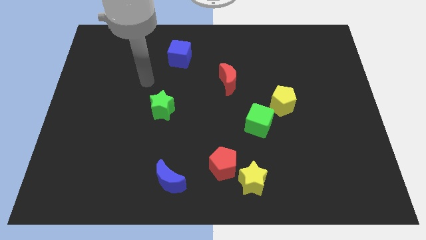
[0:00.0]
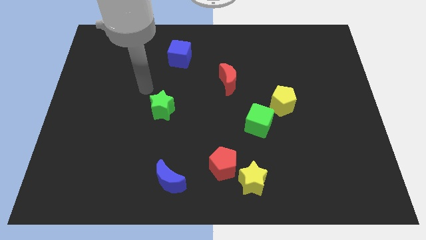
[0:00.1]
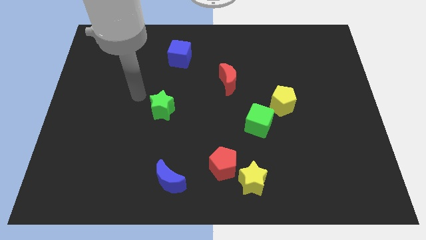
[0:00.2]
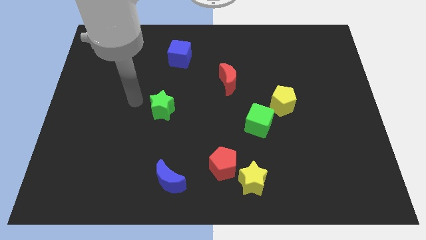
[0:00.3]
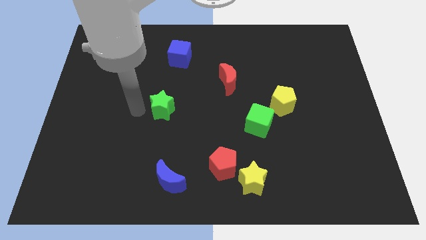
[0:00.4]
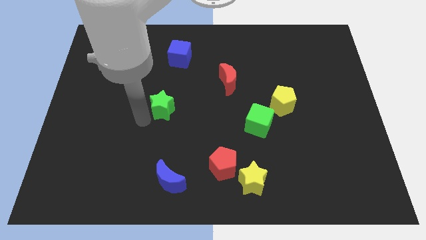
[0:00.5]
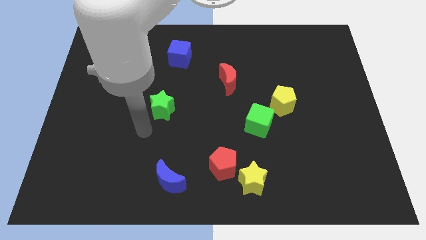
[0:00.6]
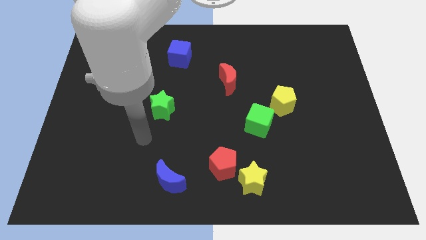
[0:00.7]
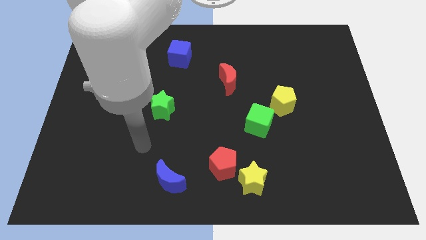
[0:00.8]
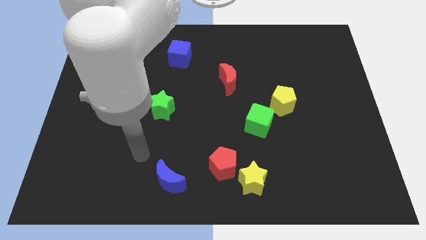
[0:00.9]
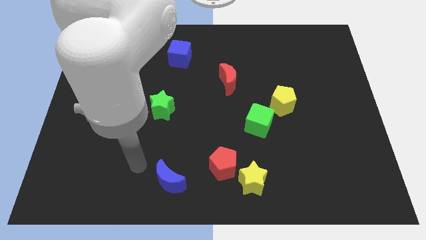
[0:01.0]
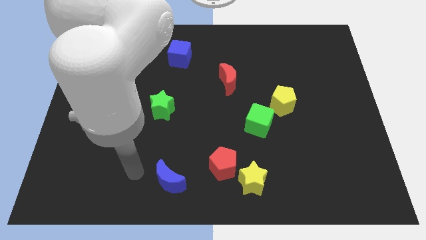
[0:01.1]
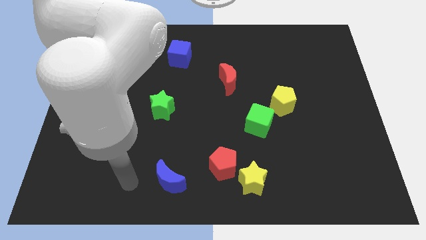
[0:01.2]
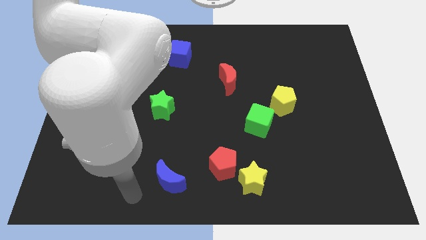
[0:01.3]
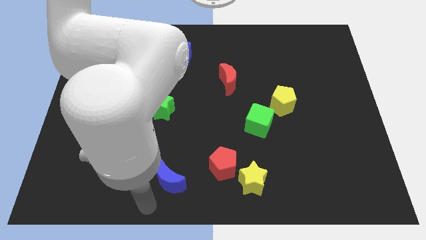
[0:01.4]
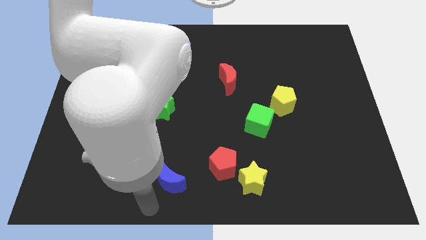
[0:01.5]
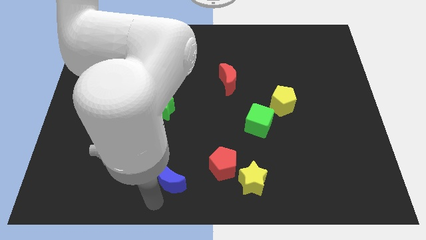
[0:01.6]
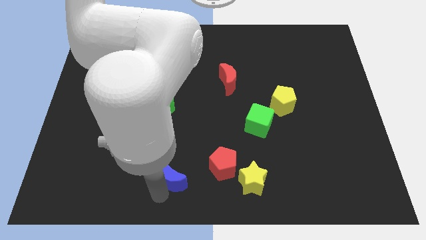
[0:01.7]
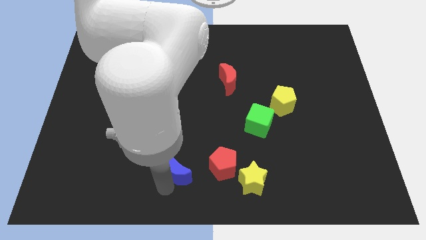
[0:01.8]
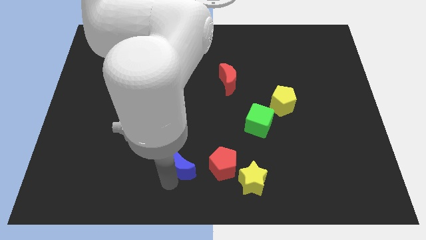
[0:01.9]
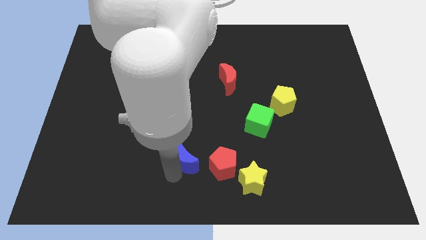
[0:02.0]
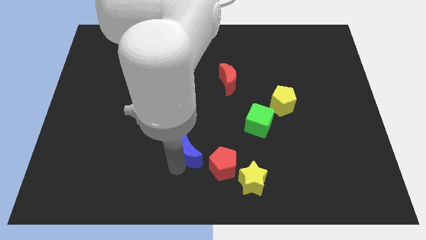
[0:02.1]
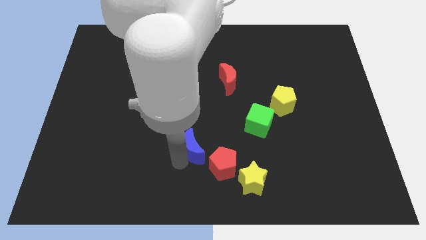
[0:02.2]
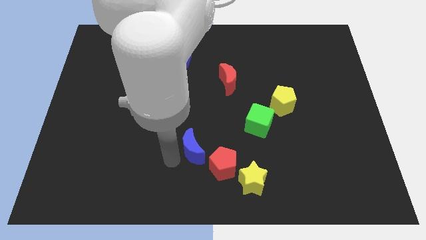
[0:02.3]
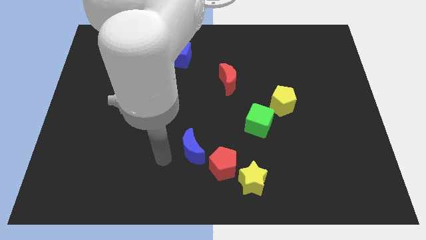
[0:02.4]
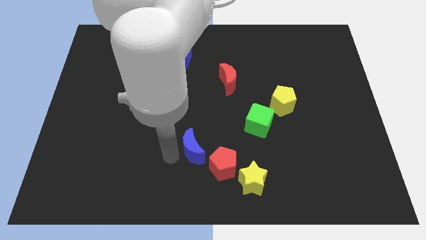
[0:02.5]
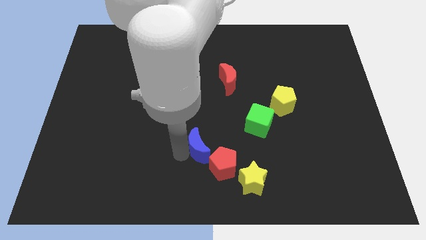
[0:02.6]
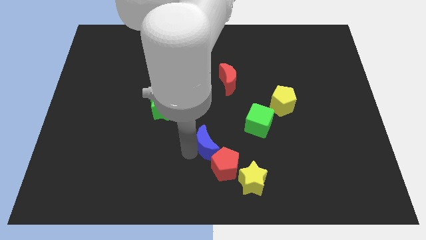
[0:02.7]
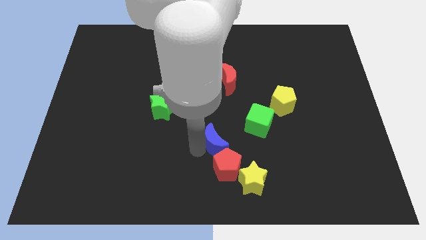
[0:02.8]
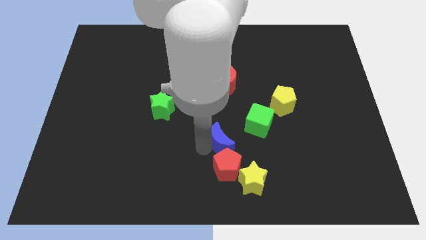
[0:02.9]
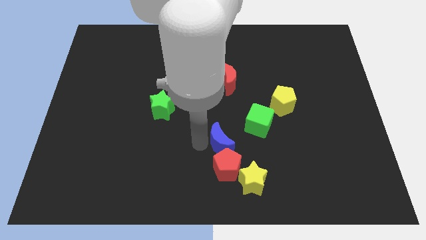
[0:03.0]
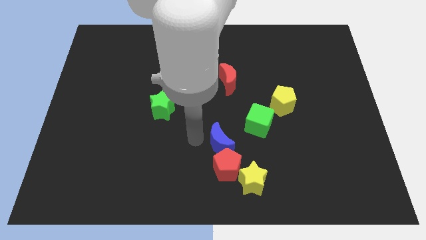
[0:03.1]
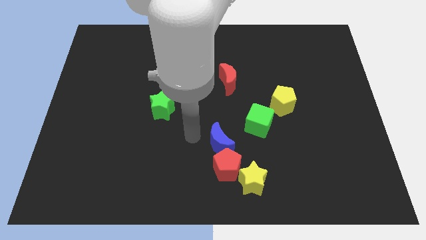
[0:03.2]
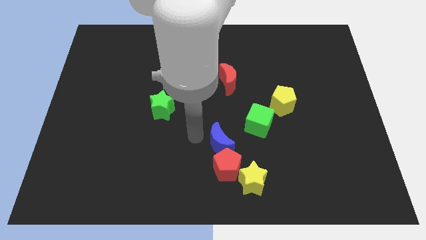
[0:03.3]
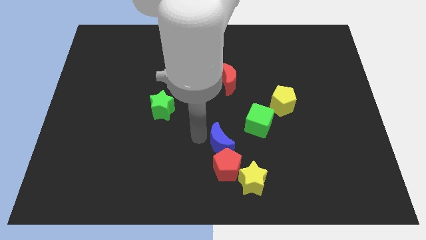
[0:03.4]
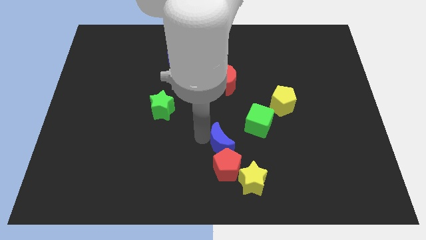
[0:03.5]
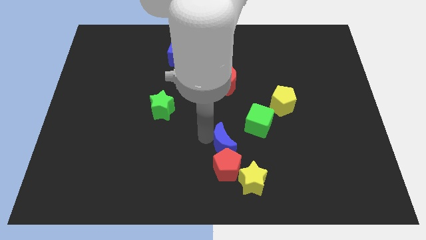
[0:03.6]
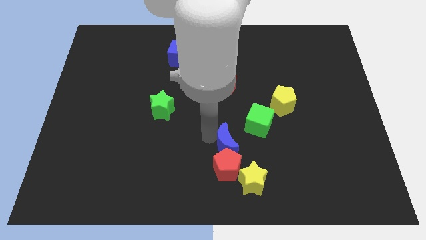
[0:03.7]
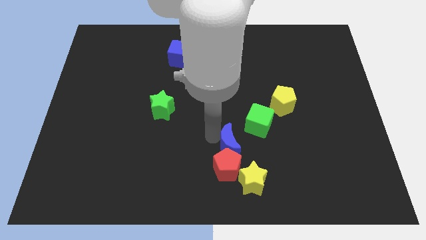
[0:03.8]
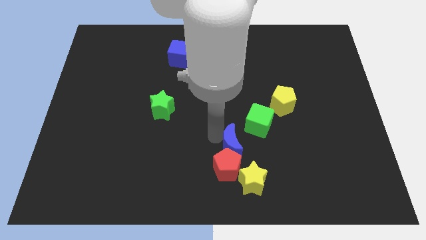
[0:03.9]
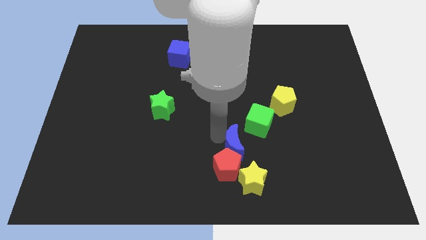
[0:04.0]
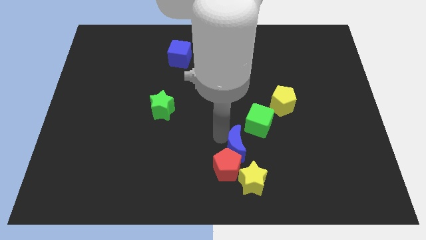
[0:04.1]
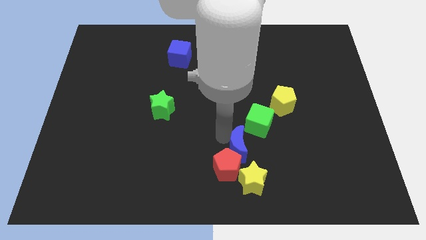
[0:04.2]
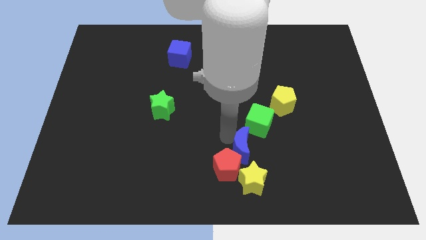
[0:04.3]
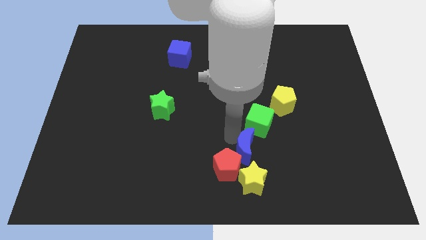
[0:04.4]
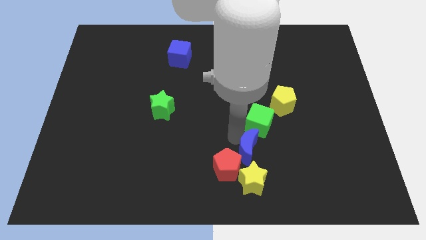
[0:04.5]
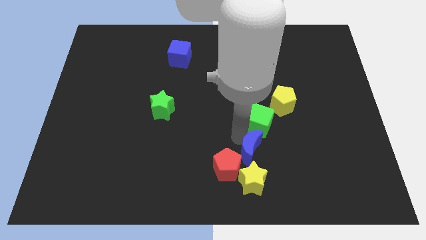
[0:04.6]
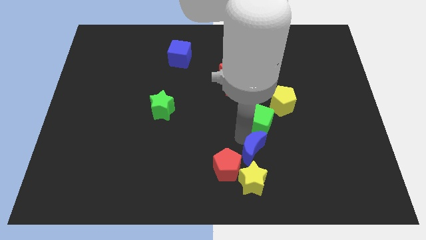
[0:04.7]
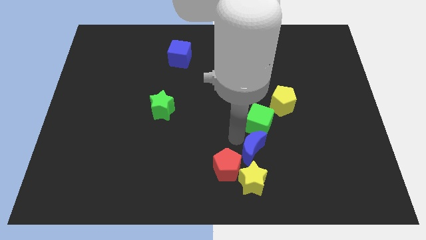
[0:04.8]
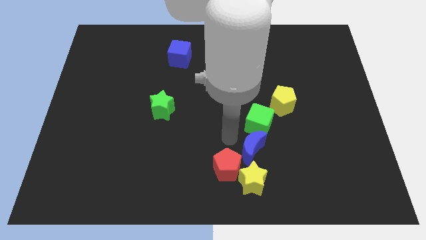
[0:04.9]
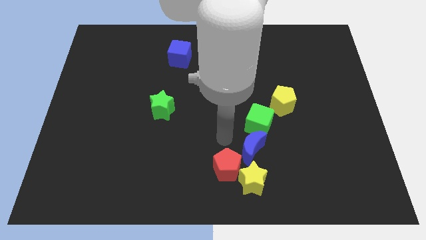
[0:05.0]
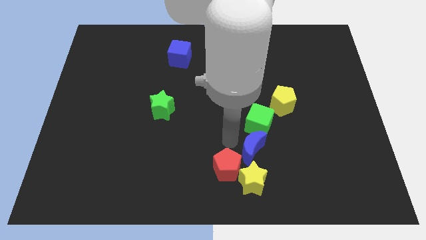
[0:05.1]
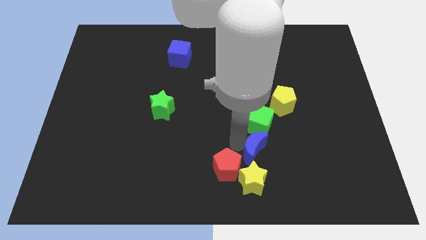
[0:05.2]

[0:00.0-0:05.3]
push the blue moon to the top right of the yellow star

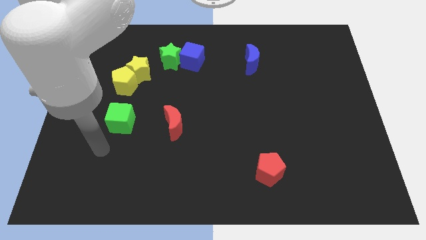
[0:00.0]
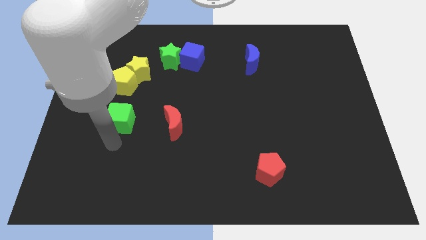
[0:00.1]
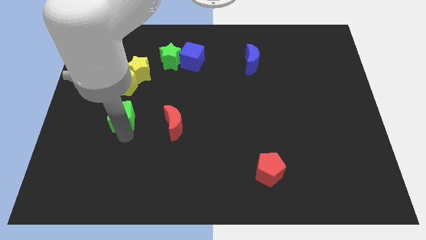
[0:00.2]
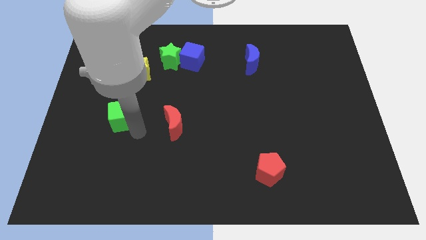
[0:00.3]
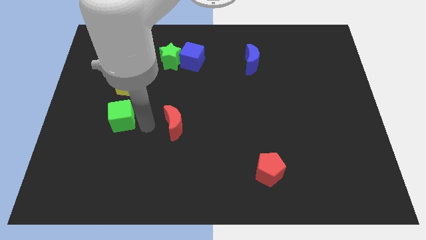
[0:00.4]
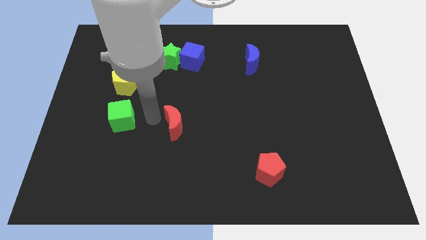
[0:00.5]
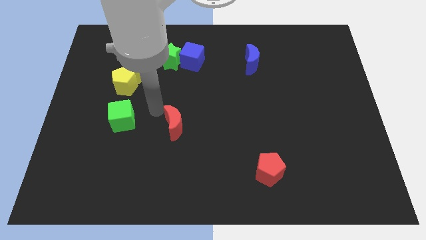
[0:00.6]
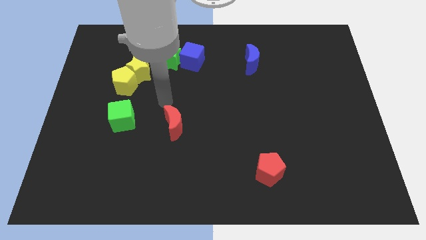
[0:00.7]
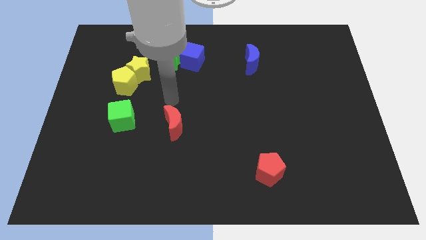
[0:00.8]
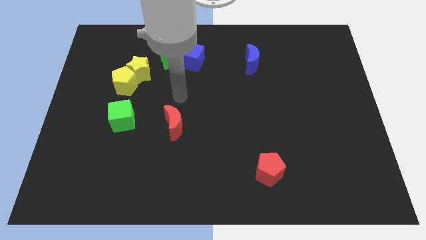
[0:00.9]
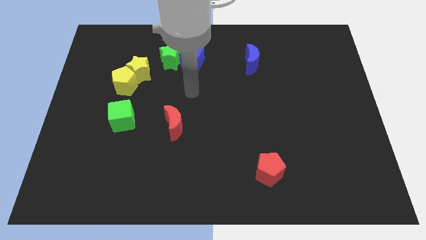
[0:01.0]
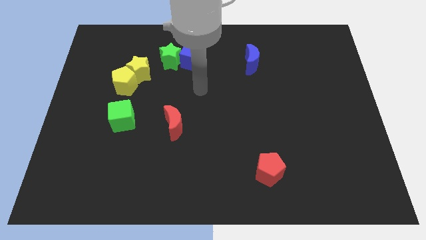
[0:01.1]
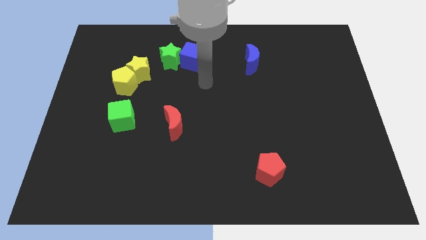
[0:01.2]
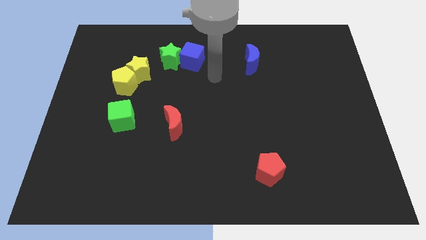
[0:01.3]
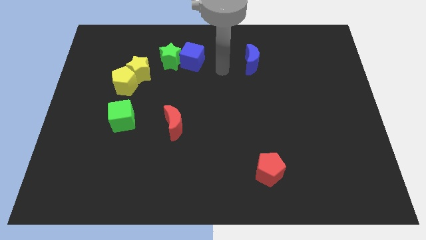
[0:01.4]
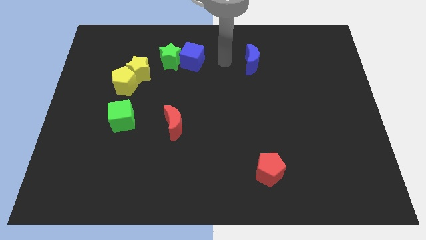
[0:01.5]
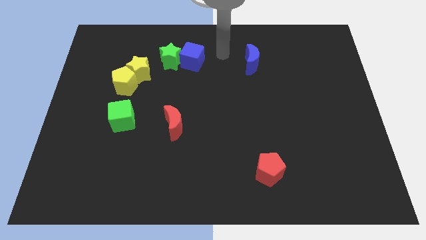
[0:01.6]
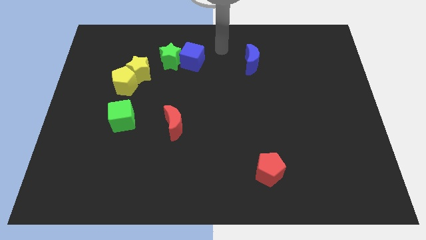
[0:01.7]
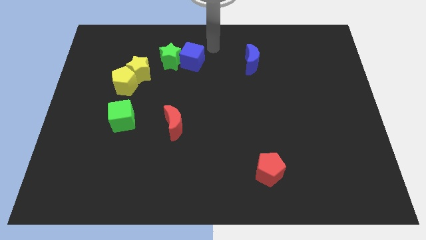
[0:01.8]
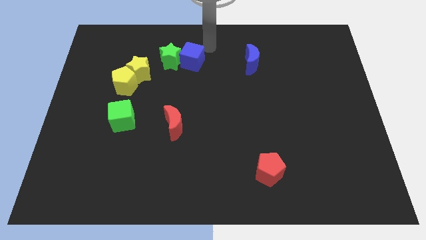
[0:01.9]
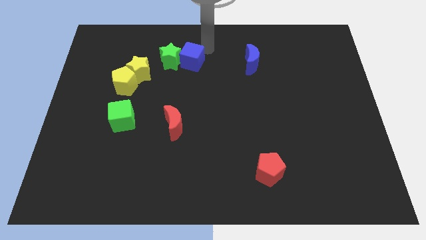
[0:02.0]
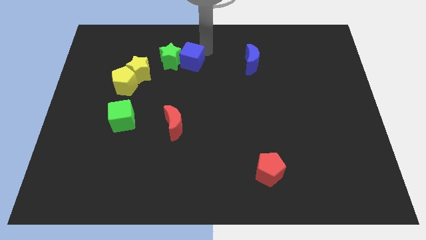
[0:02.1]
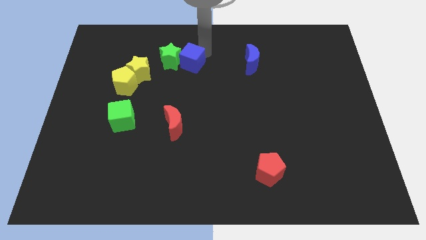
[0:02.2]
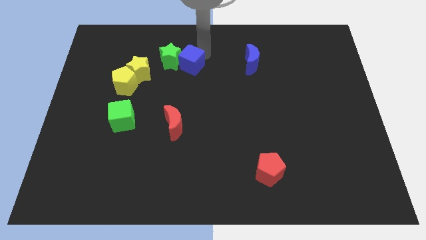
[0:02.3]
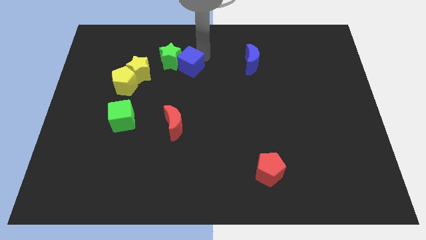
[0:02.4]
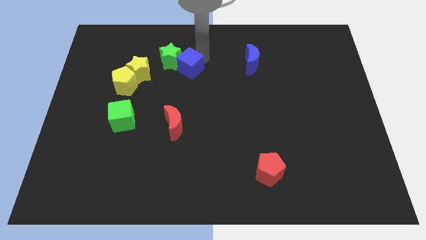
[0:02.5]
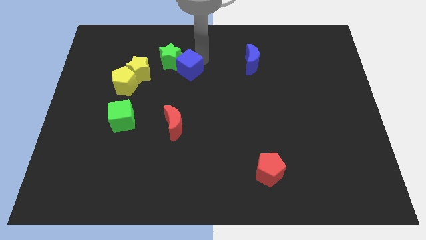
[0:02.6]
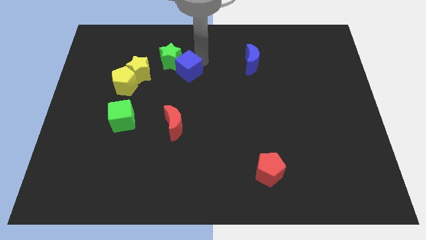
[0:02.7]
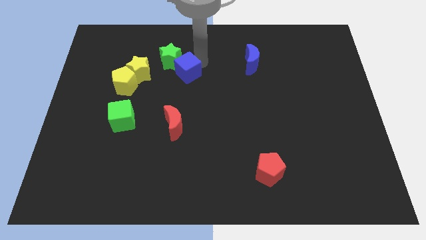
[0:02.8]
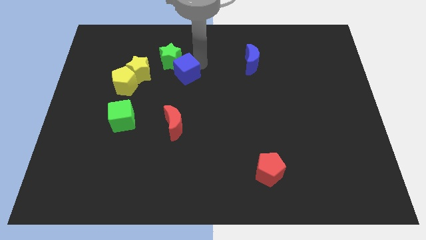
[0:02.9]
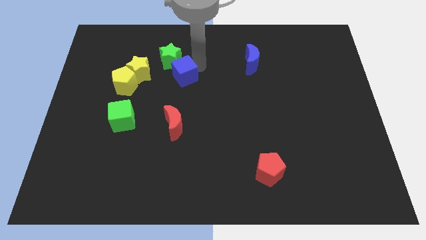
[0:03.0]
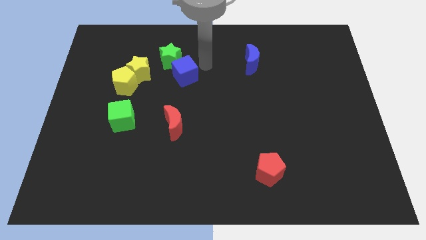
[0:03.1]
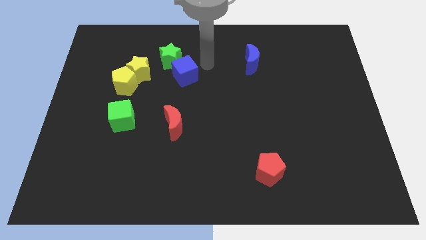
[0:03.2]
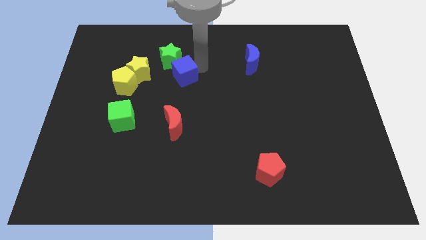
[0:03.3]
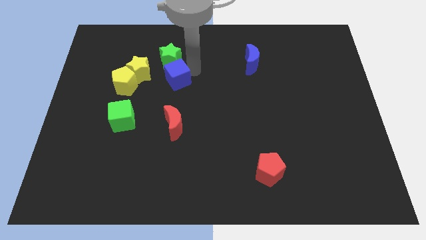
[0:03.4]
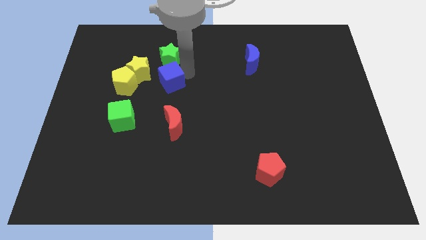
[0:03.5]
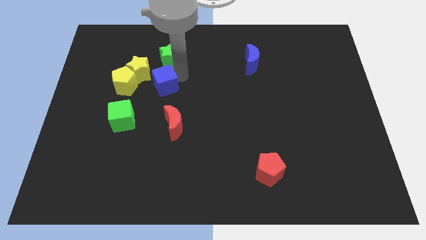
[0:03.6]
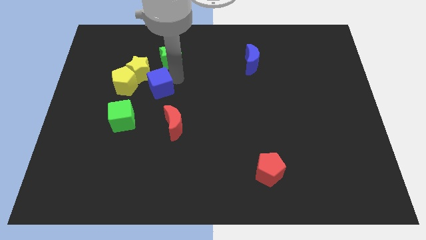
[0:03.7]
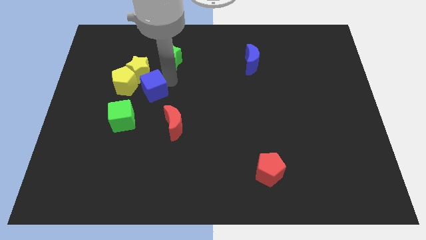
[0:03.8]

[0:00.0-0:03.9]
put the blue cube to the bottom right of the yellow pentagon
